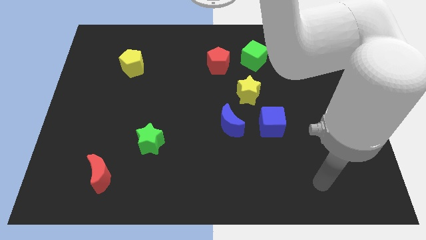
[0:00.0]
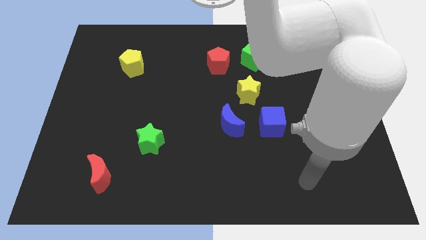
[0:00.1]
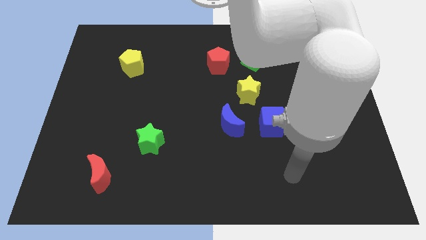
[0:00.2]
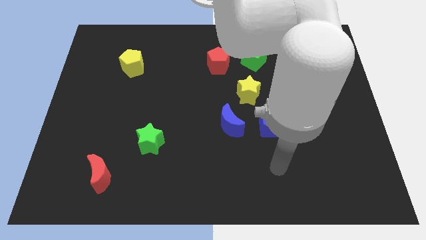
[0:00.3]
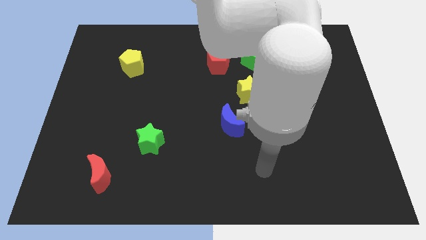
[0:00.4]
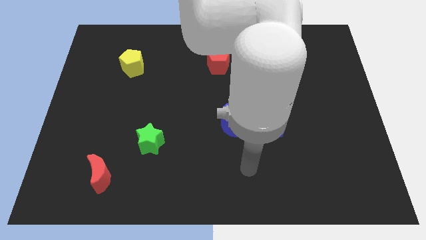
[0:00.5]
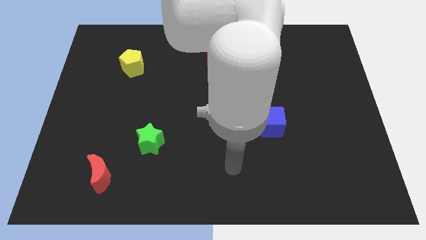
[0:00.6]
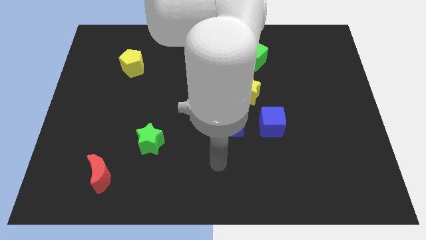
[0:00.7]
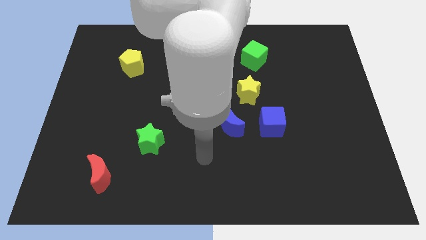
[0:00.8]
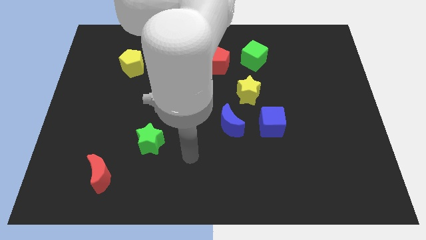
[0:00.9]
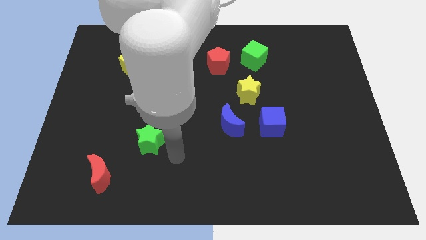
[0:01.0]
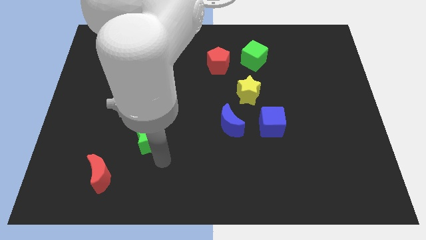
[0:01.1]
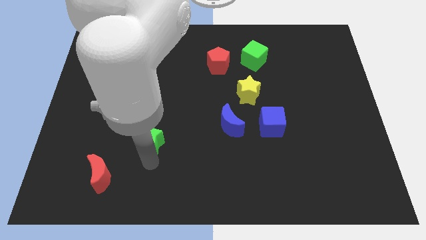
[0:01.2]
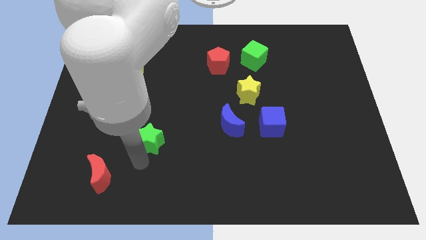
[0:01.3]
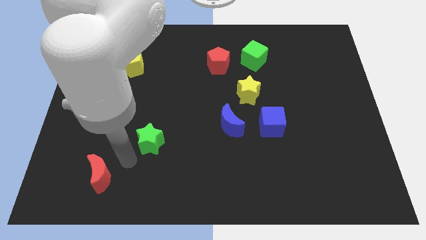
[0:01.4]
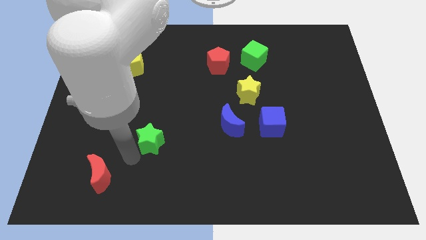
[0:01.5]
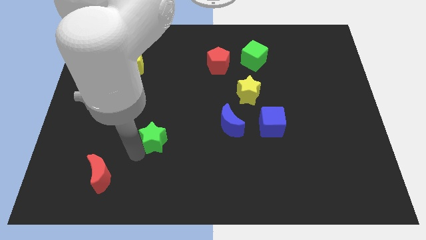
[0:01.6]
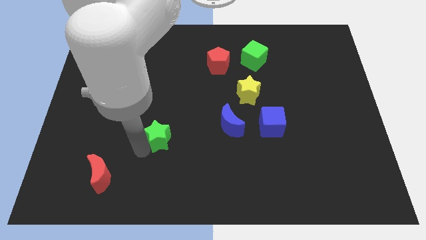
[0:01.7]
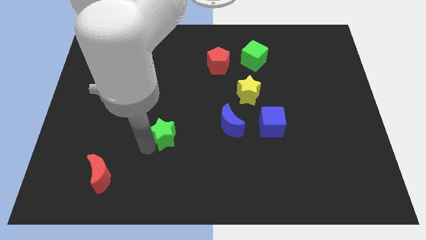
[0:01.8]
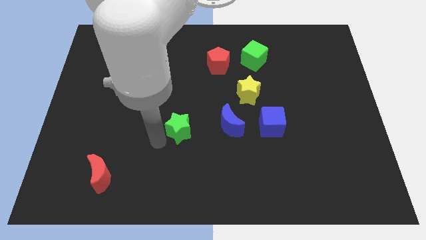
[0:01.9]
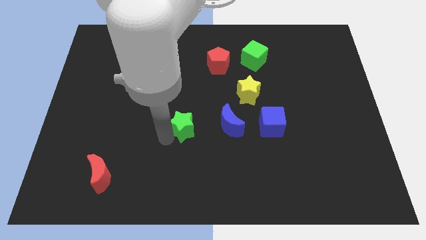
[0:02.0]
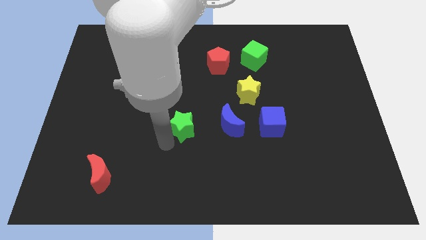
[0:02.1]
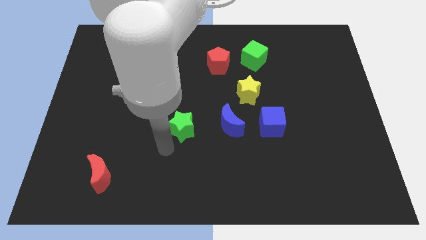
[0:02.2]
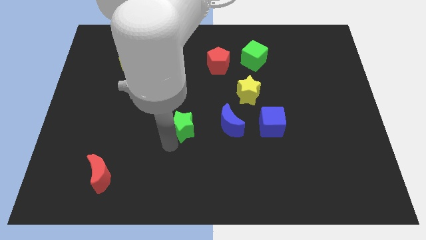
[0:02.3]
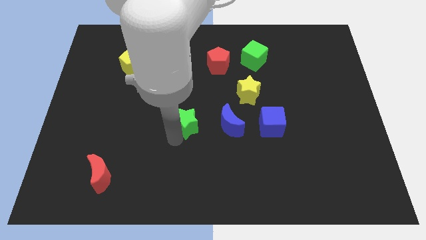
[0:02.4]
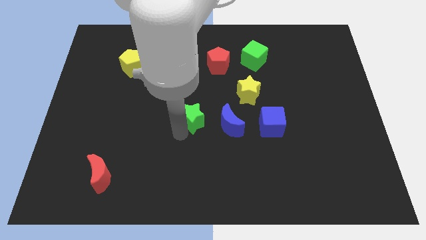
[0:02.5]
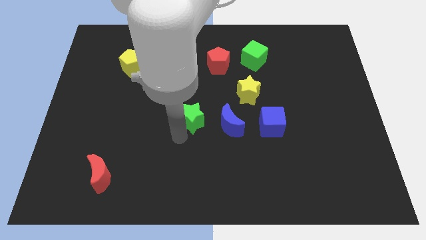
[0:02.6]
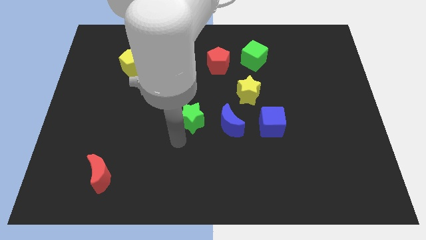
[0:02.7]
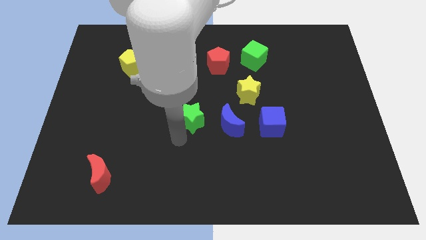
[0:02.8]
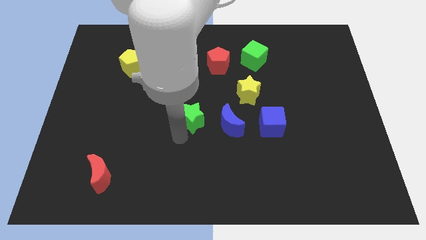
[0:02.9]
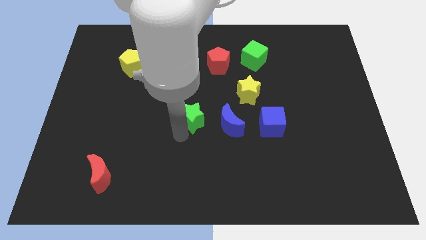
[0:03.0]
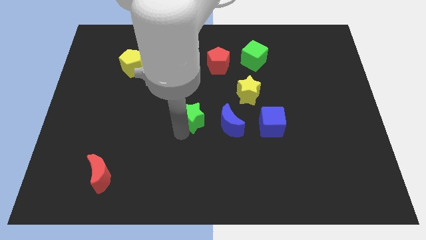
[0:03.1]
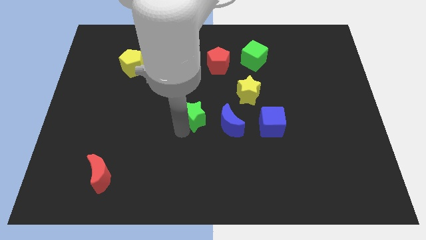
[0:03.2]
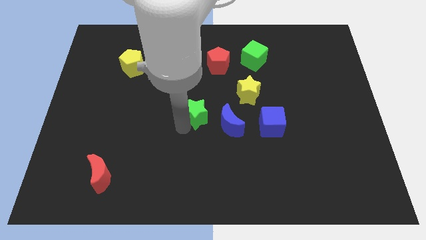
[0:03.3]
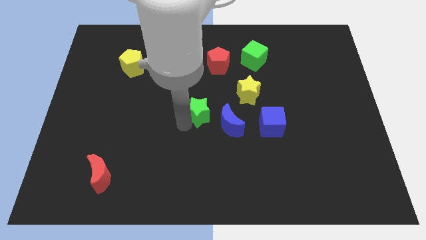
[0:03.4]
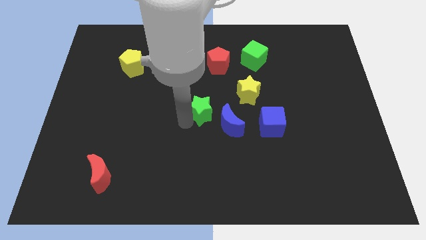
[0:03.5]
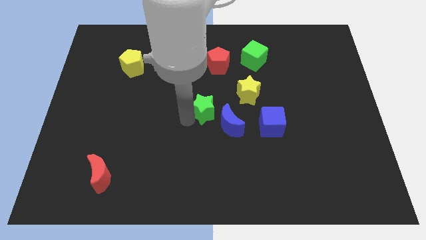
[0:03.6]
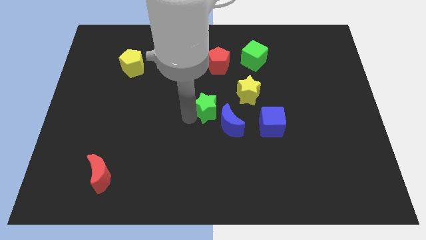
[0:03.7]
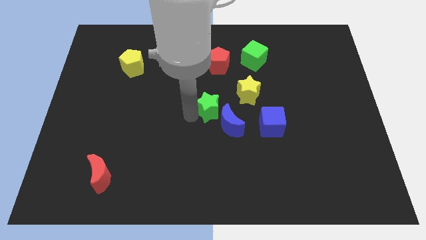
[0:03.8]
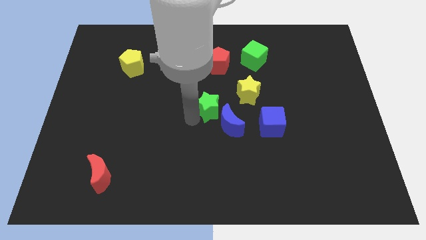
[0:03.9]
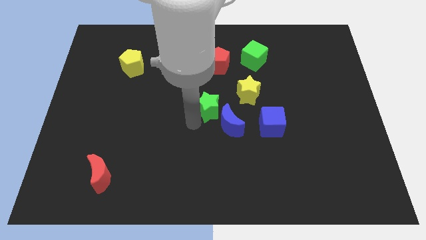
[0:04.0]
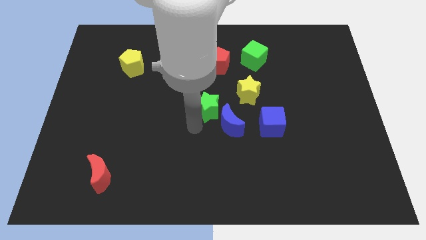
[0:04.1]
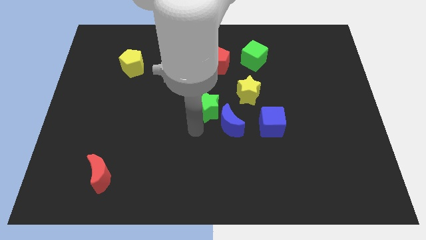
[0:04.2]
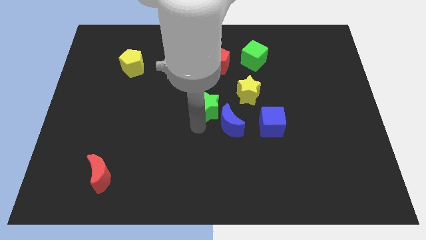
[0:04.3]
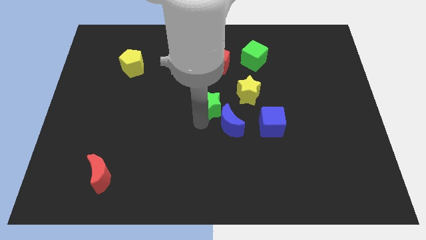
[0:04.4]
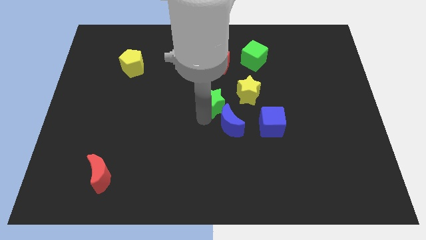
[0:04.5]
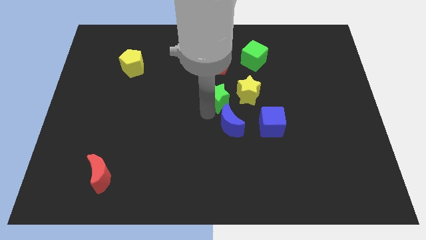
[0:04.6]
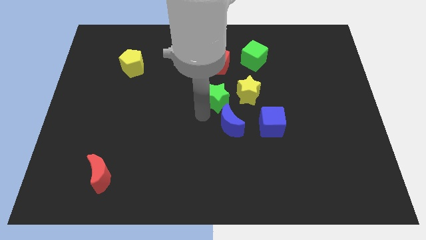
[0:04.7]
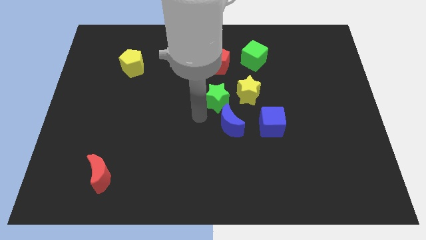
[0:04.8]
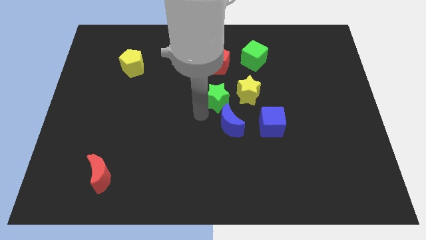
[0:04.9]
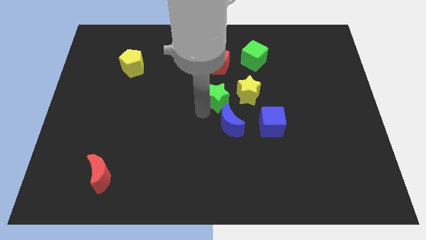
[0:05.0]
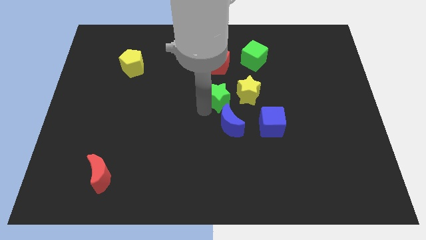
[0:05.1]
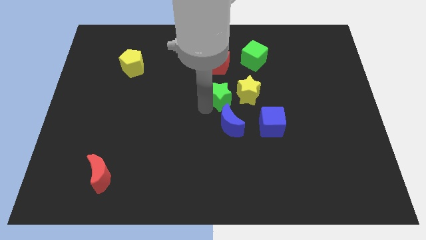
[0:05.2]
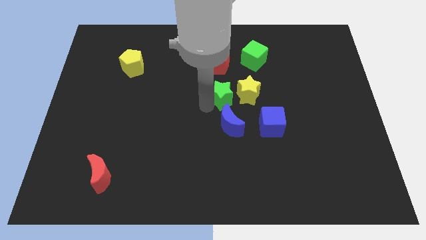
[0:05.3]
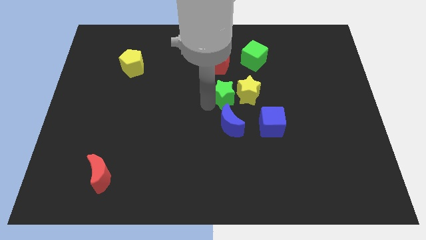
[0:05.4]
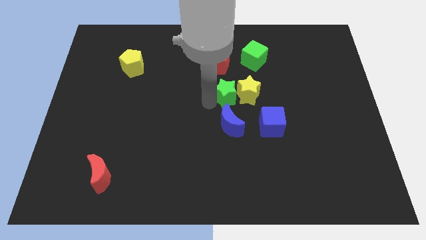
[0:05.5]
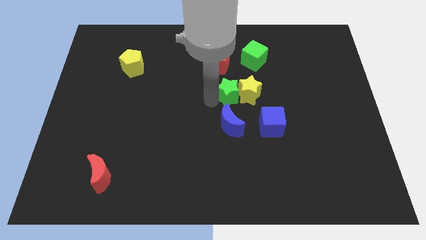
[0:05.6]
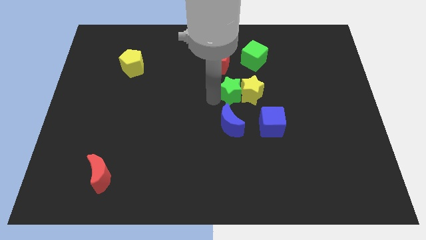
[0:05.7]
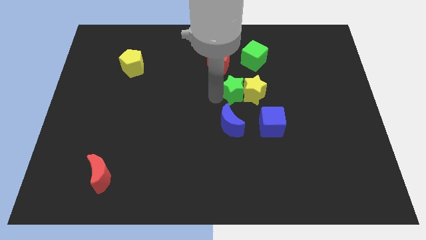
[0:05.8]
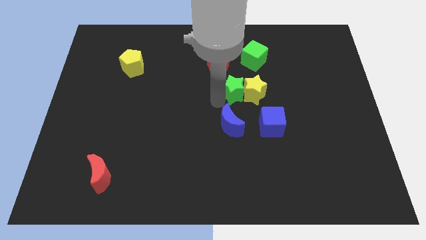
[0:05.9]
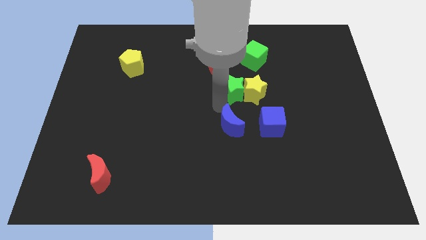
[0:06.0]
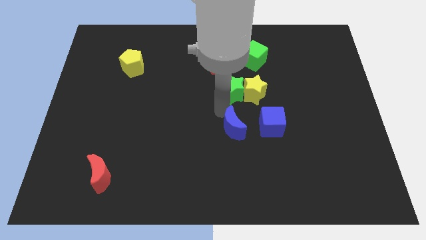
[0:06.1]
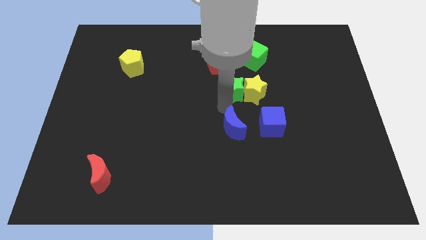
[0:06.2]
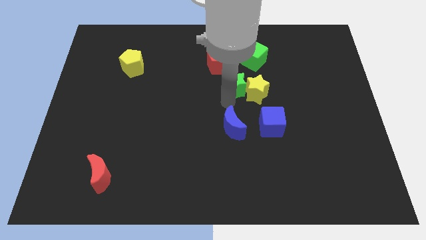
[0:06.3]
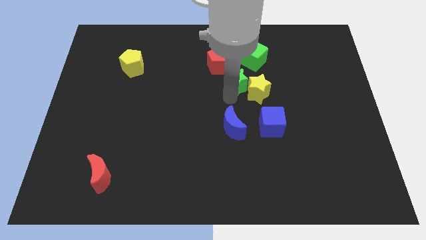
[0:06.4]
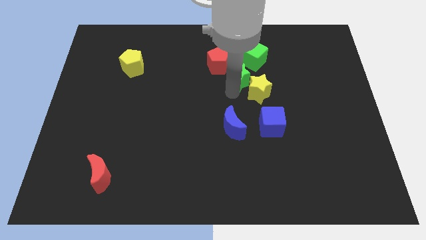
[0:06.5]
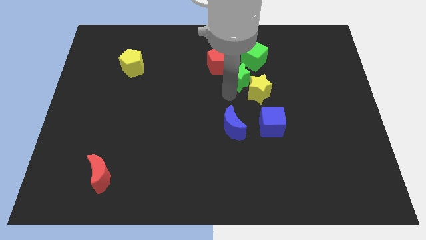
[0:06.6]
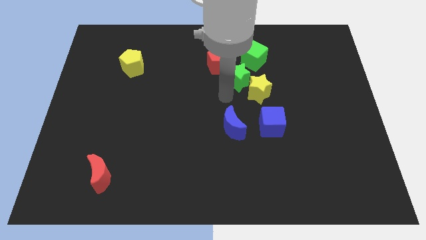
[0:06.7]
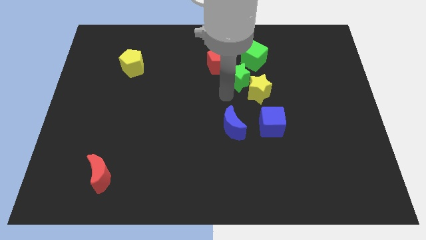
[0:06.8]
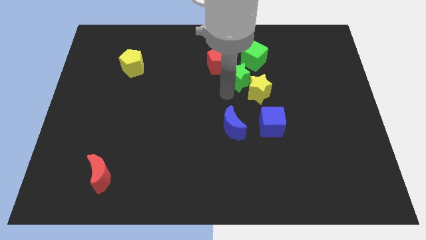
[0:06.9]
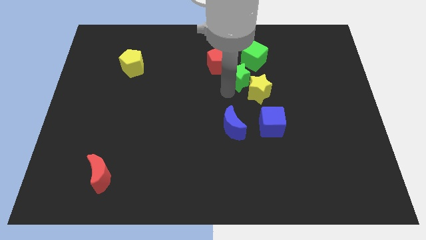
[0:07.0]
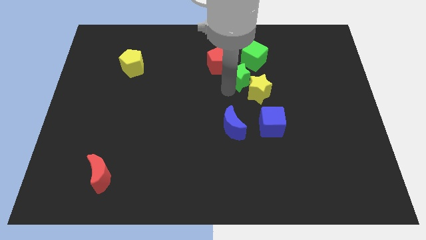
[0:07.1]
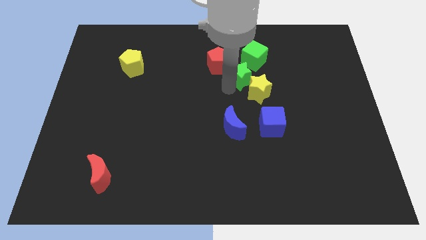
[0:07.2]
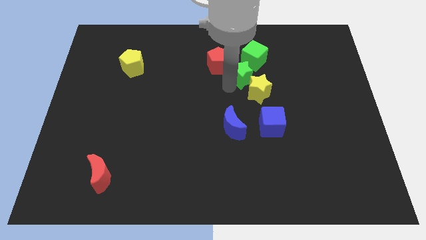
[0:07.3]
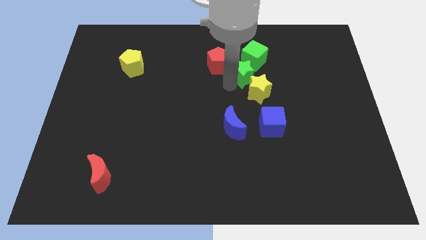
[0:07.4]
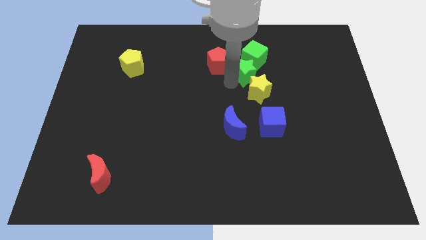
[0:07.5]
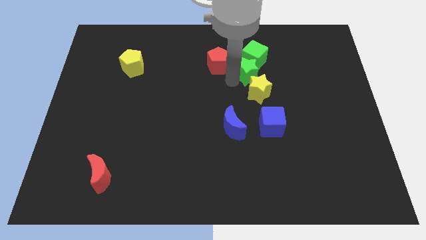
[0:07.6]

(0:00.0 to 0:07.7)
put the green star towards the green cube
